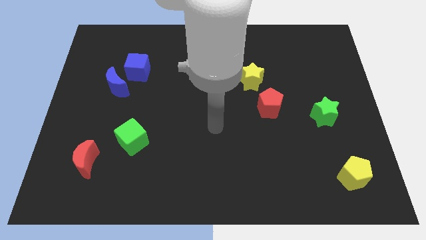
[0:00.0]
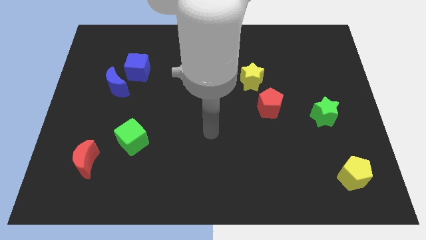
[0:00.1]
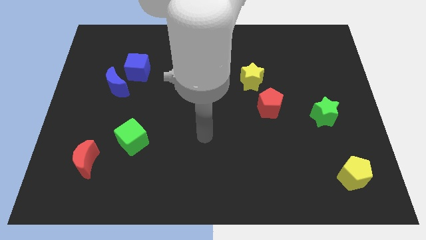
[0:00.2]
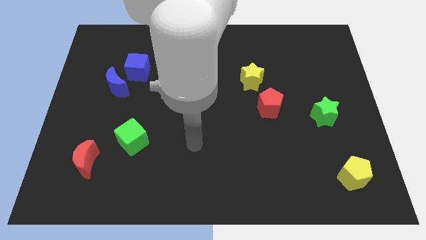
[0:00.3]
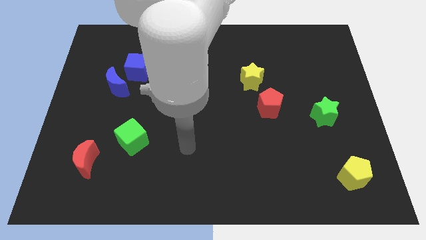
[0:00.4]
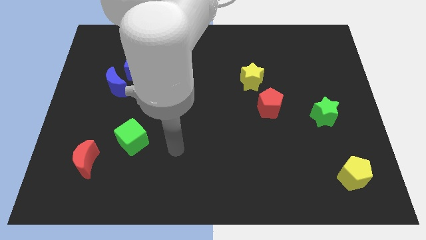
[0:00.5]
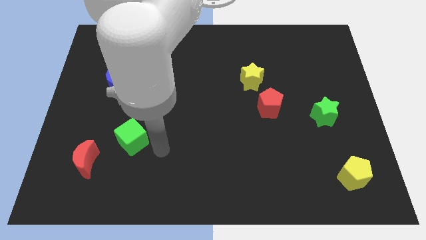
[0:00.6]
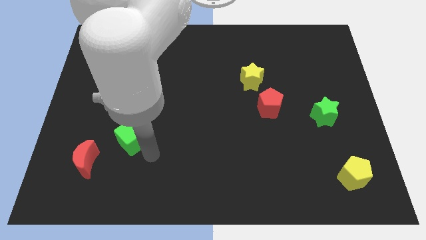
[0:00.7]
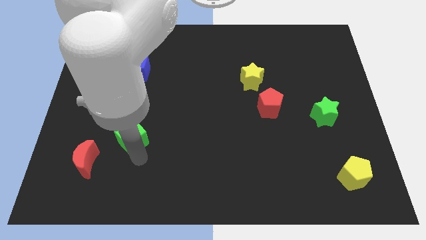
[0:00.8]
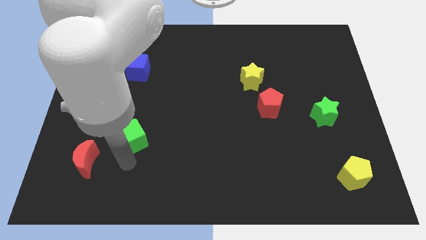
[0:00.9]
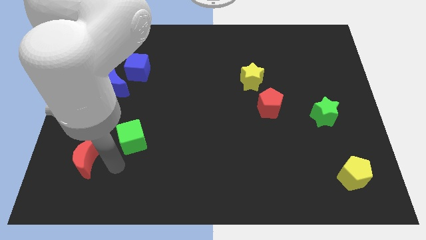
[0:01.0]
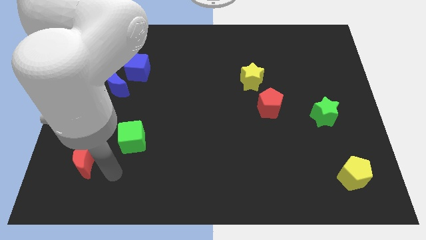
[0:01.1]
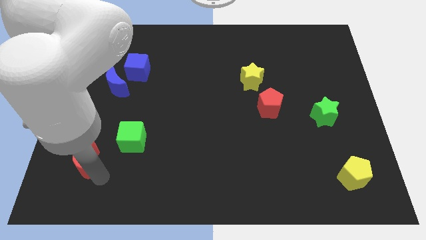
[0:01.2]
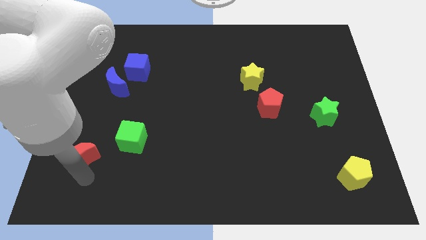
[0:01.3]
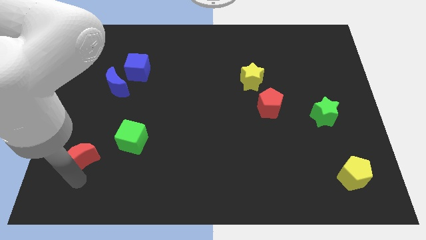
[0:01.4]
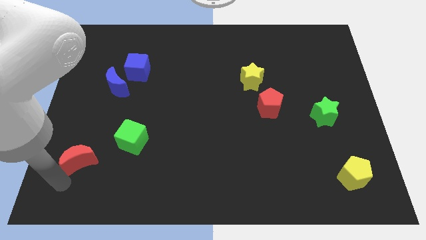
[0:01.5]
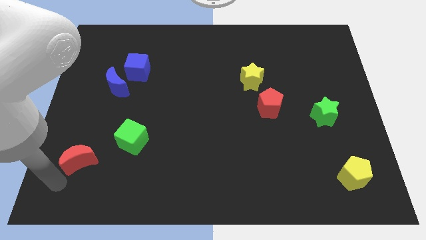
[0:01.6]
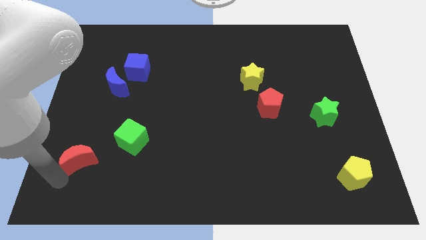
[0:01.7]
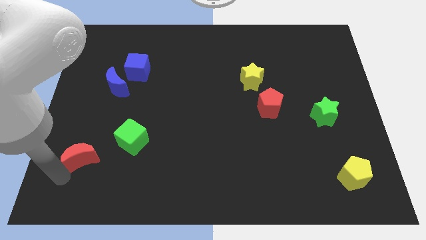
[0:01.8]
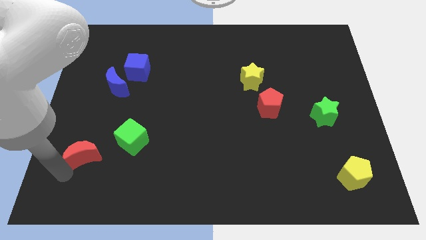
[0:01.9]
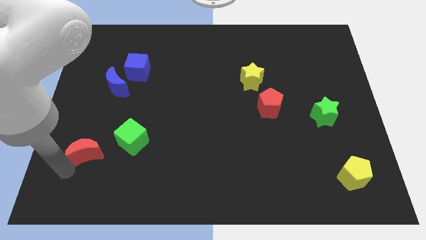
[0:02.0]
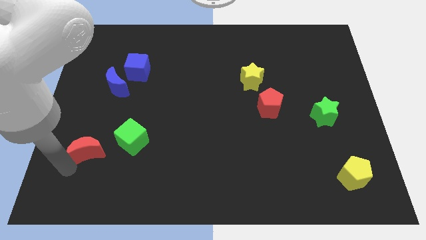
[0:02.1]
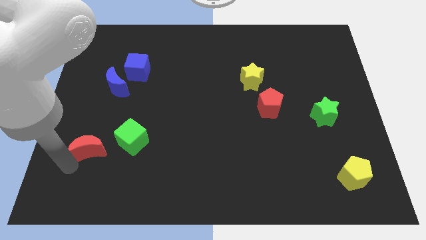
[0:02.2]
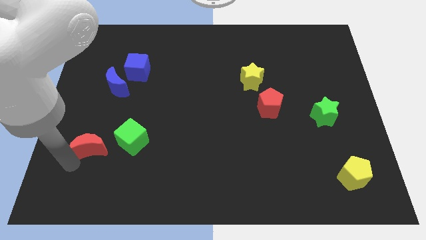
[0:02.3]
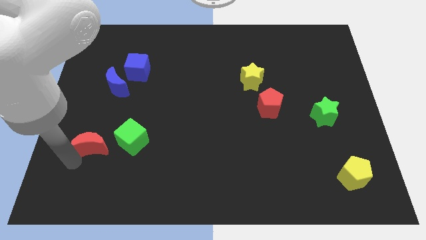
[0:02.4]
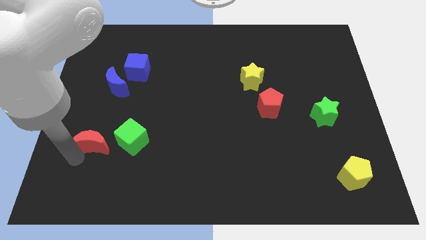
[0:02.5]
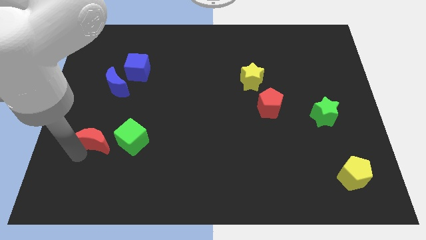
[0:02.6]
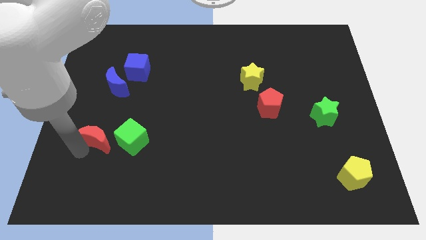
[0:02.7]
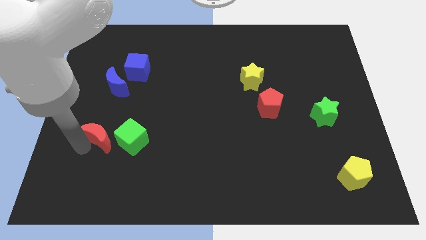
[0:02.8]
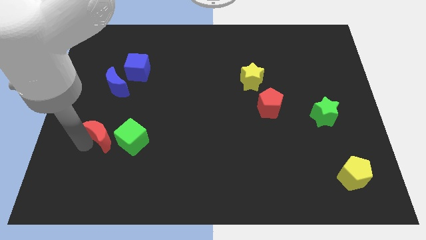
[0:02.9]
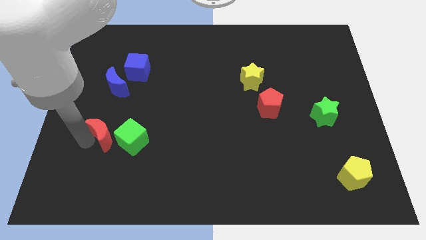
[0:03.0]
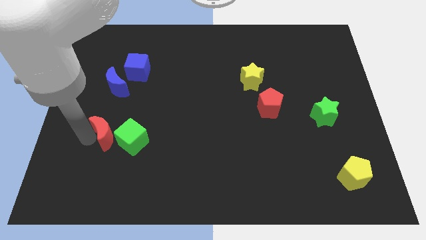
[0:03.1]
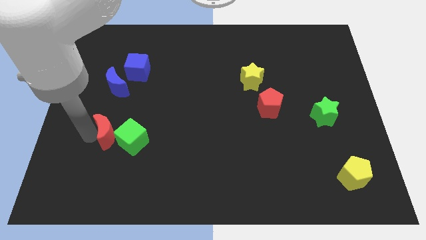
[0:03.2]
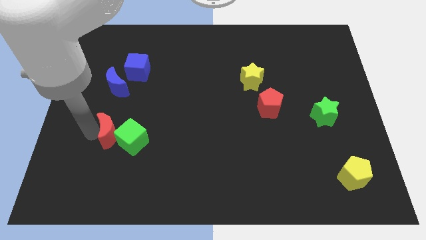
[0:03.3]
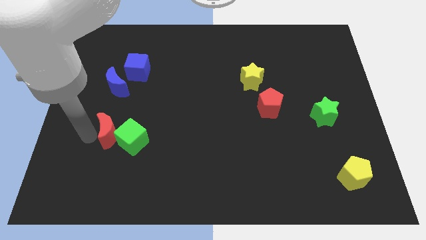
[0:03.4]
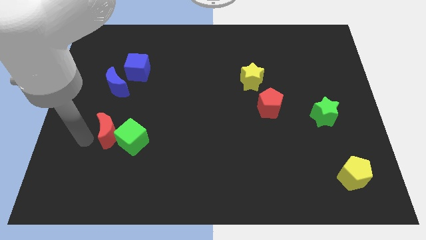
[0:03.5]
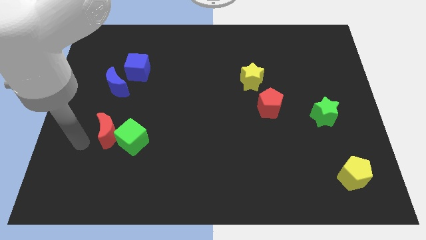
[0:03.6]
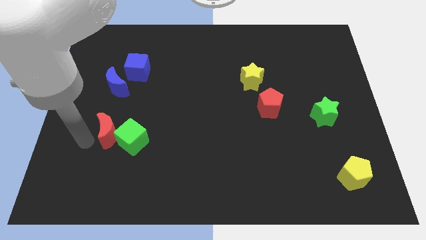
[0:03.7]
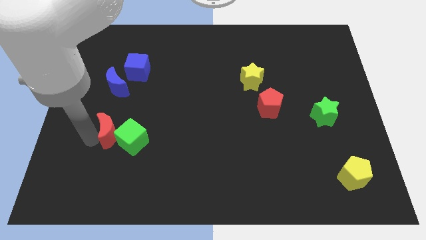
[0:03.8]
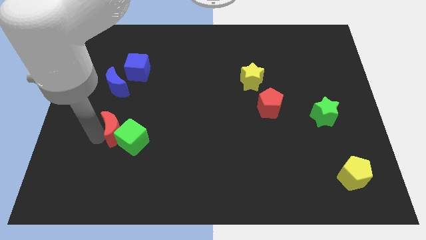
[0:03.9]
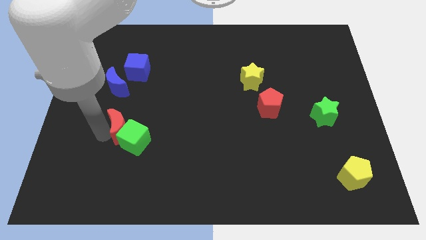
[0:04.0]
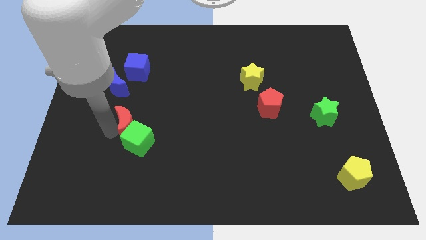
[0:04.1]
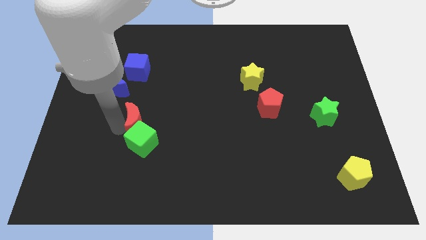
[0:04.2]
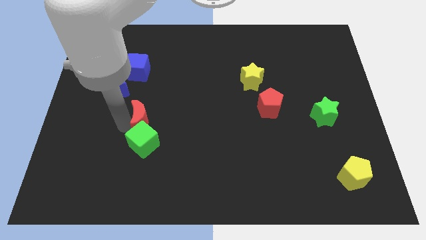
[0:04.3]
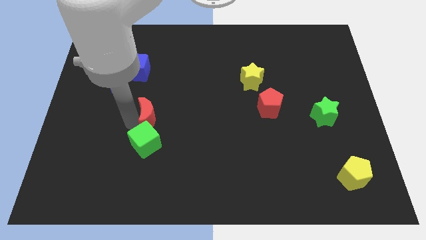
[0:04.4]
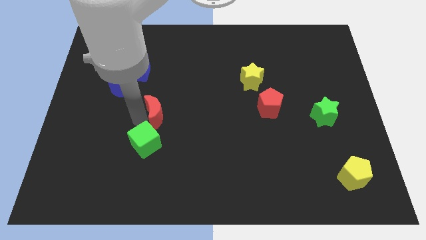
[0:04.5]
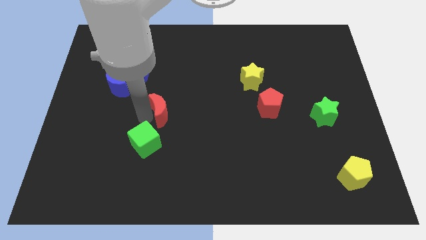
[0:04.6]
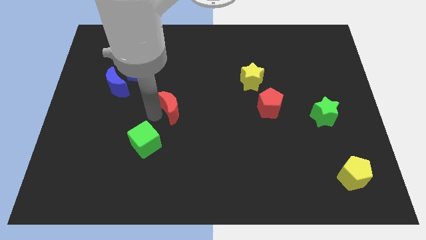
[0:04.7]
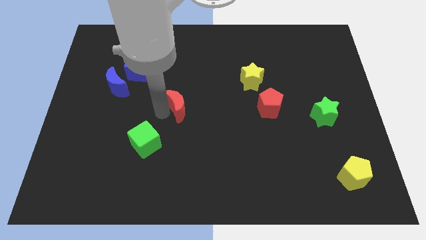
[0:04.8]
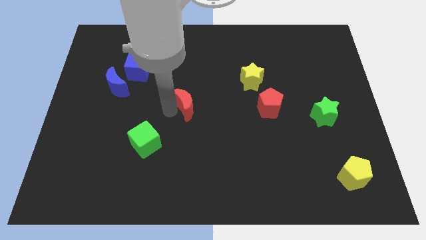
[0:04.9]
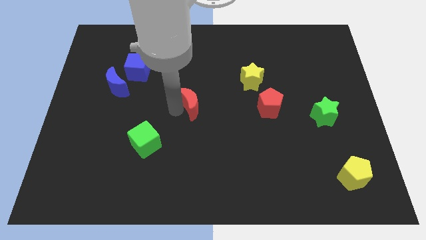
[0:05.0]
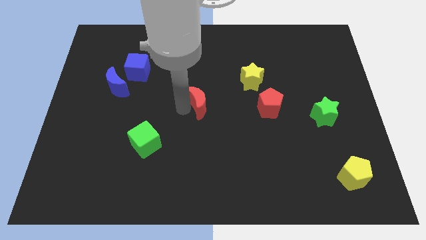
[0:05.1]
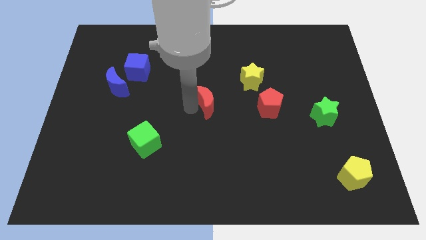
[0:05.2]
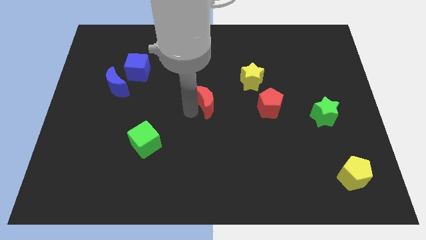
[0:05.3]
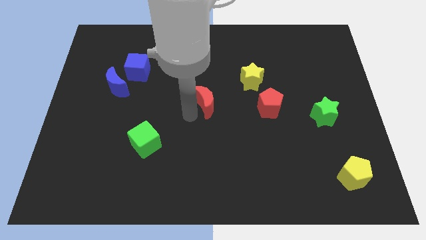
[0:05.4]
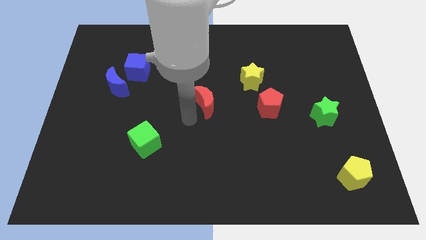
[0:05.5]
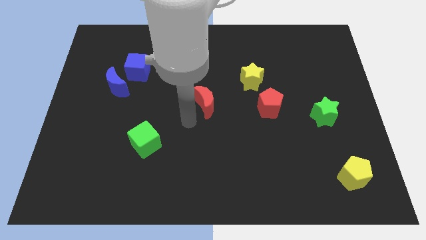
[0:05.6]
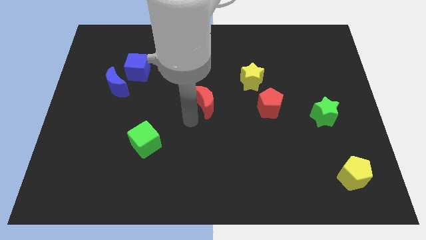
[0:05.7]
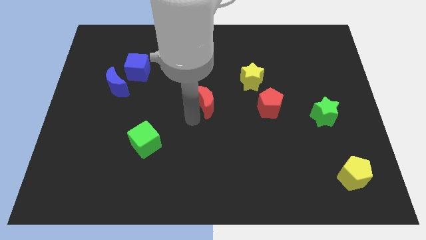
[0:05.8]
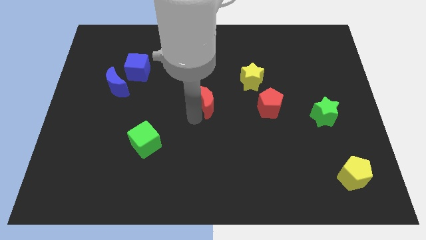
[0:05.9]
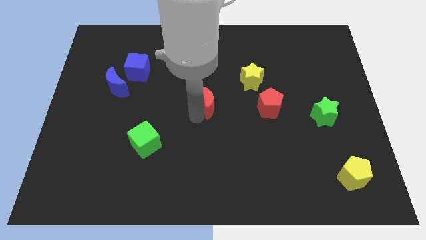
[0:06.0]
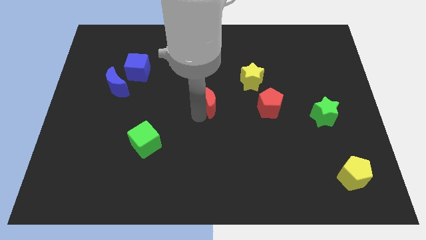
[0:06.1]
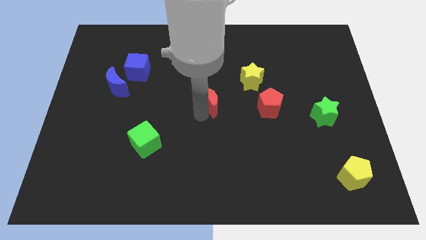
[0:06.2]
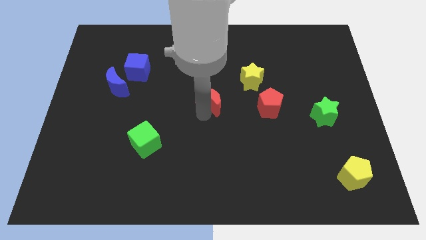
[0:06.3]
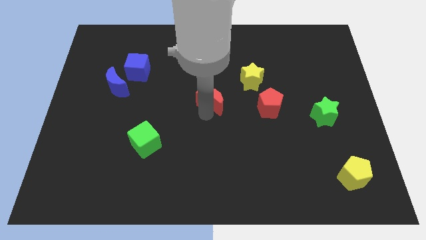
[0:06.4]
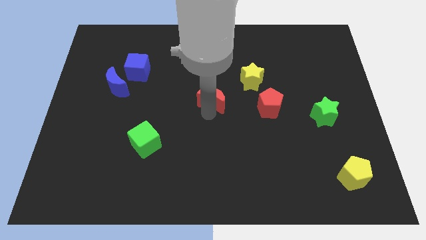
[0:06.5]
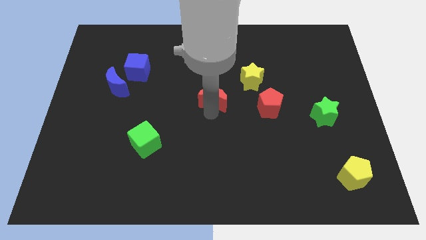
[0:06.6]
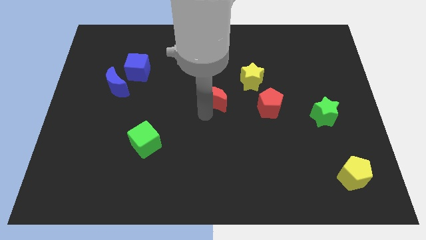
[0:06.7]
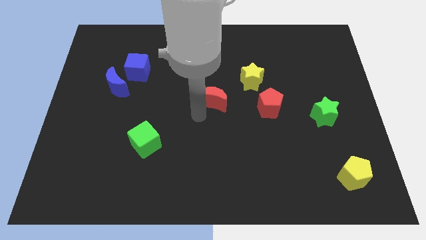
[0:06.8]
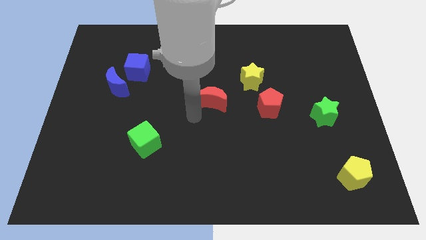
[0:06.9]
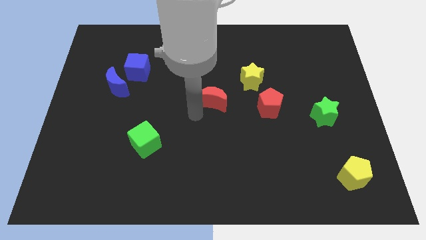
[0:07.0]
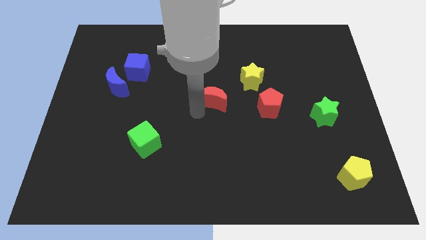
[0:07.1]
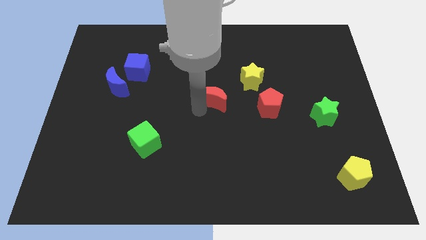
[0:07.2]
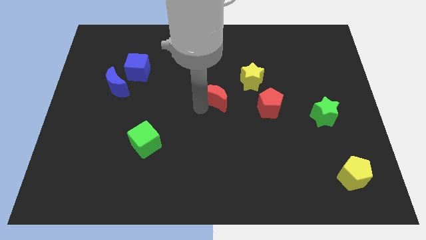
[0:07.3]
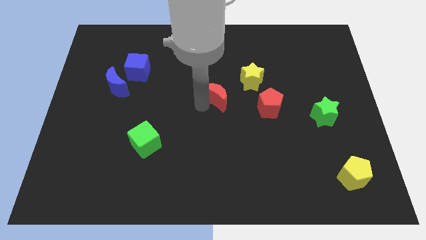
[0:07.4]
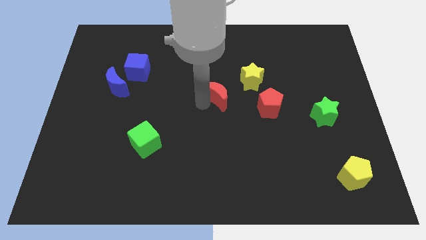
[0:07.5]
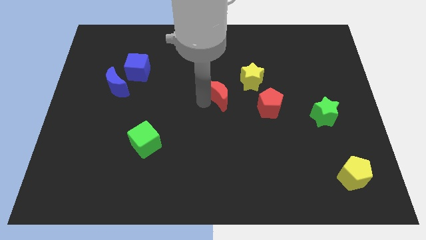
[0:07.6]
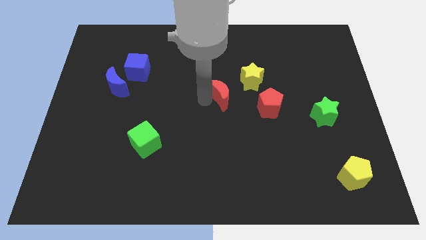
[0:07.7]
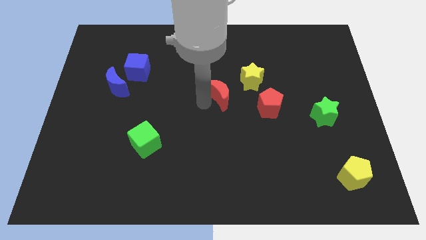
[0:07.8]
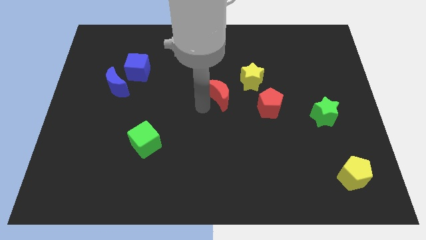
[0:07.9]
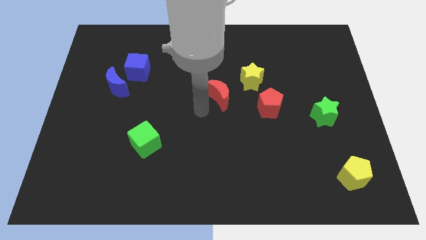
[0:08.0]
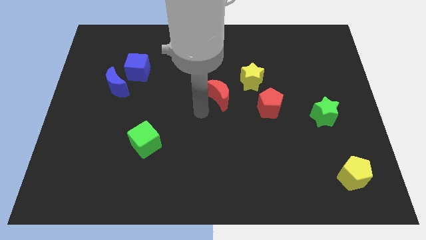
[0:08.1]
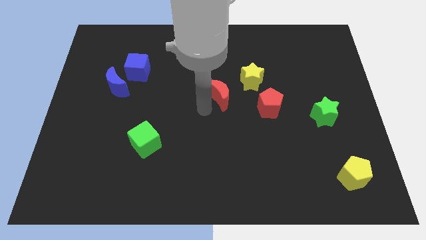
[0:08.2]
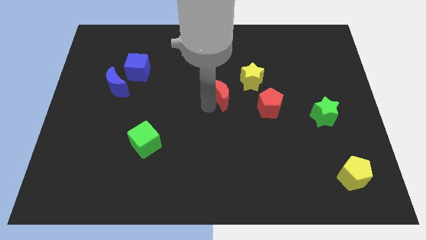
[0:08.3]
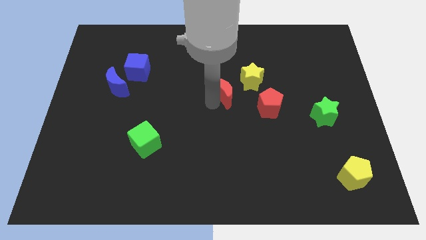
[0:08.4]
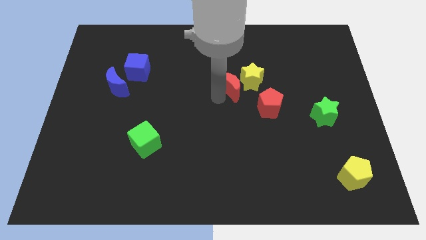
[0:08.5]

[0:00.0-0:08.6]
move the red moon towards the yellow star
